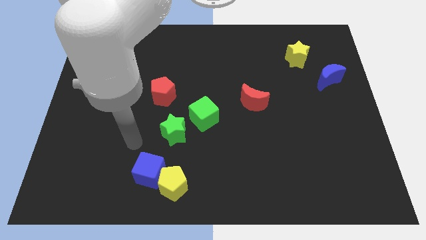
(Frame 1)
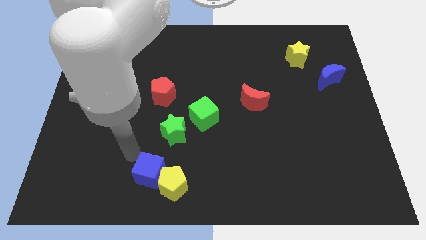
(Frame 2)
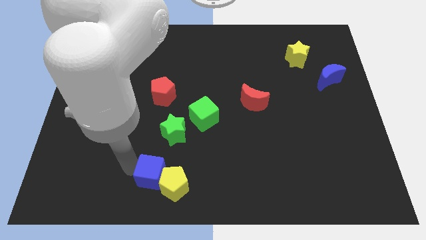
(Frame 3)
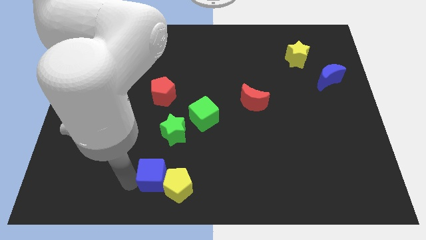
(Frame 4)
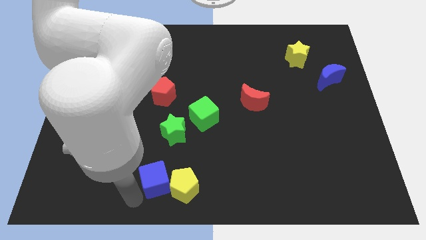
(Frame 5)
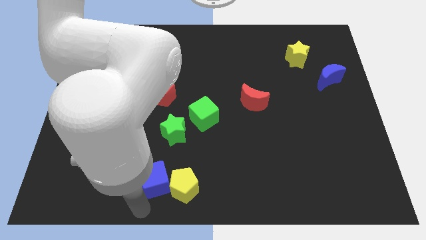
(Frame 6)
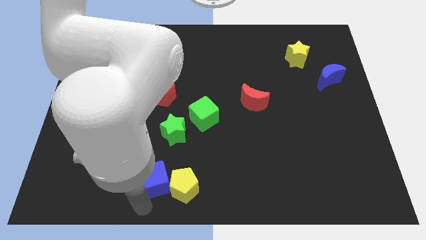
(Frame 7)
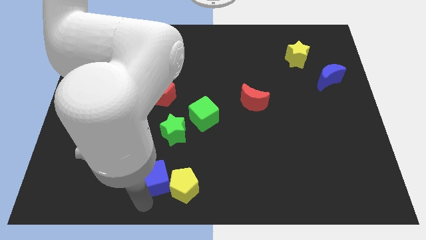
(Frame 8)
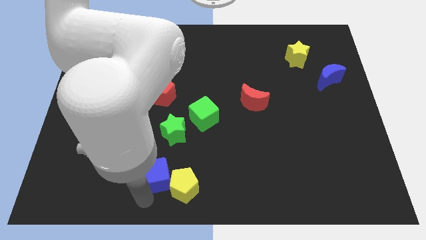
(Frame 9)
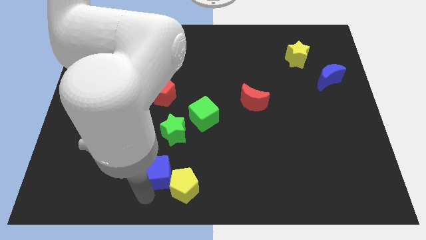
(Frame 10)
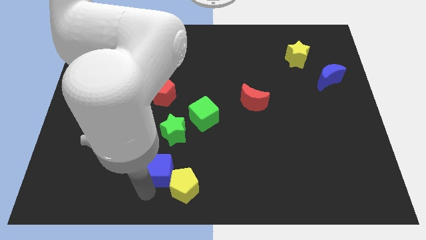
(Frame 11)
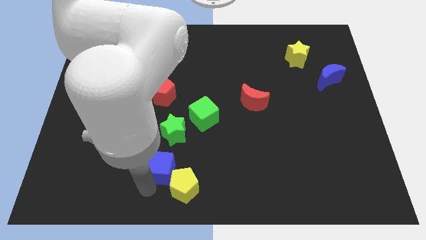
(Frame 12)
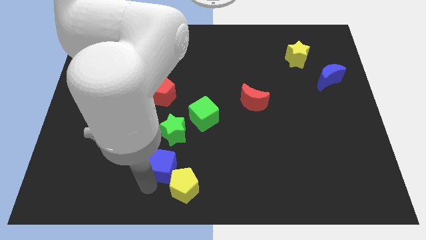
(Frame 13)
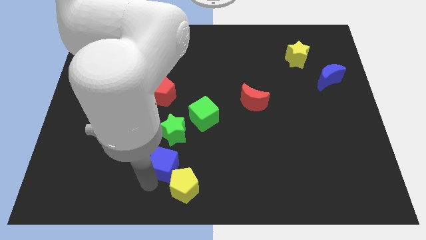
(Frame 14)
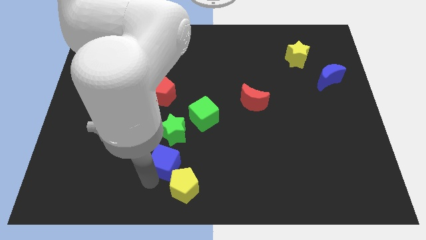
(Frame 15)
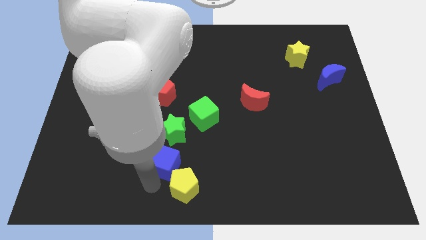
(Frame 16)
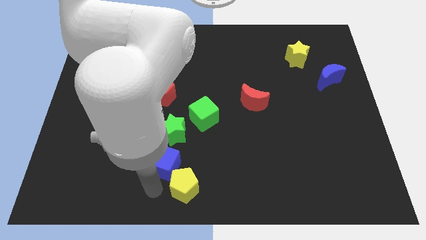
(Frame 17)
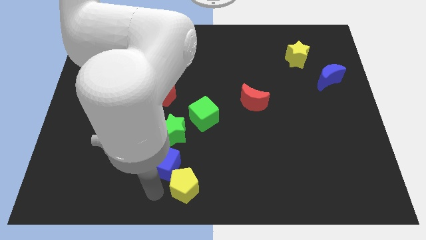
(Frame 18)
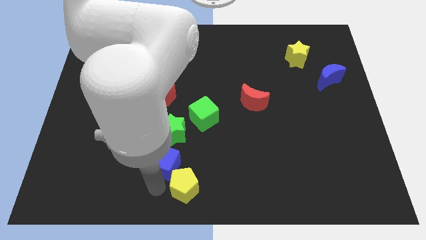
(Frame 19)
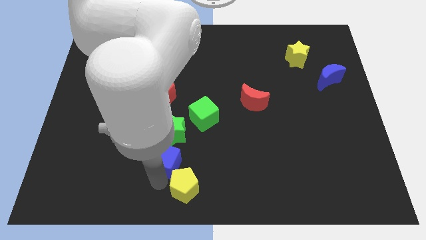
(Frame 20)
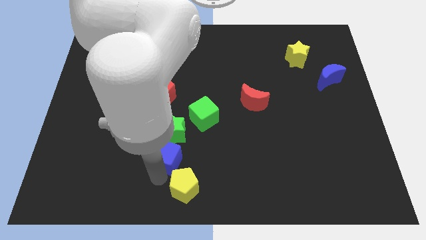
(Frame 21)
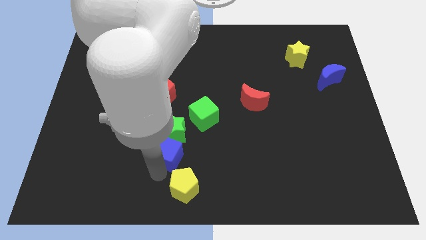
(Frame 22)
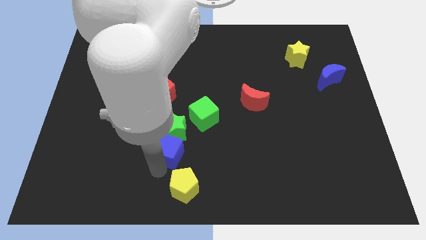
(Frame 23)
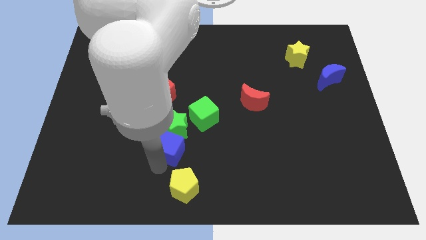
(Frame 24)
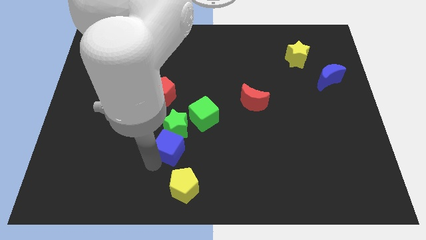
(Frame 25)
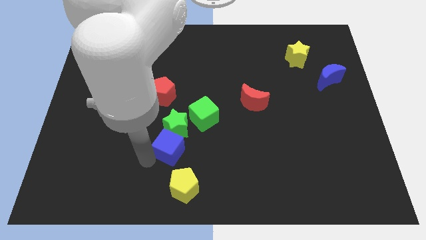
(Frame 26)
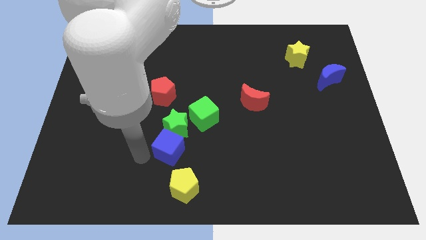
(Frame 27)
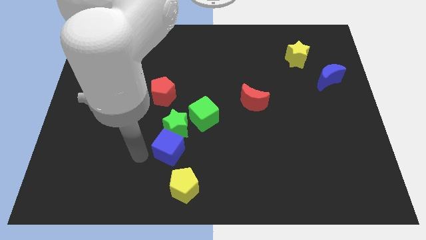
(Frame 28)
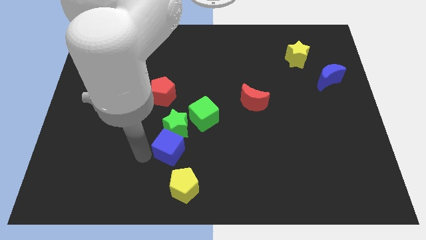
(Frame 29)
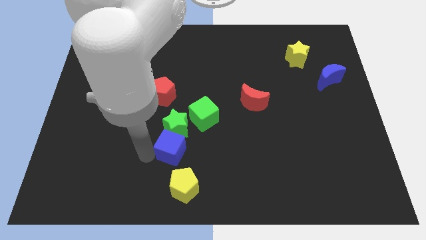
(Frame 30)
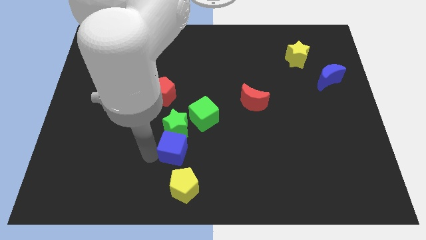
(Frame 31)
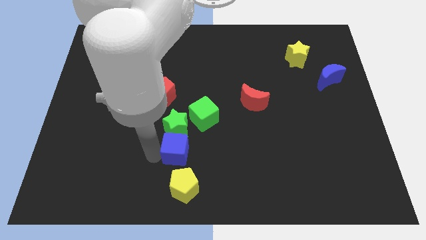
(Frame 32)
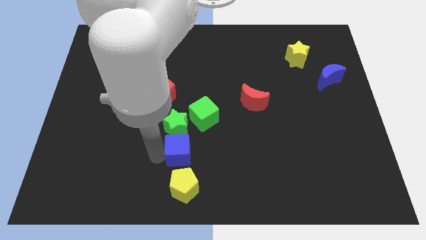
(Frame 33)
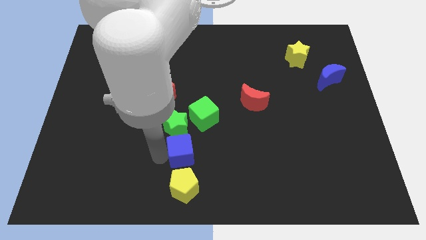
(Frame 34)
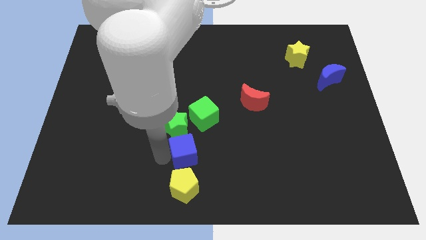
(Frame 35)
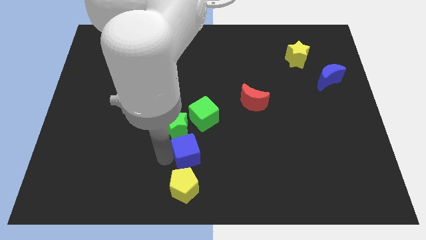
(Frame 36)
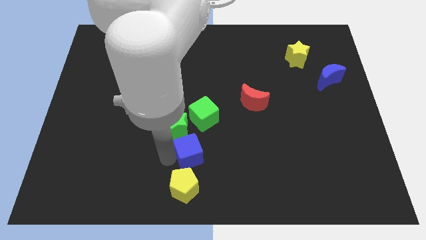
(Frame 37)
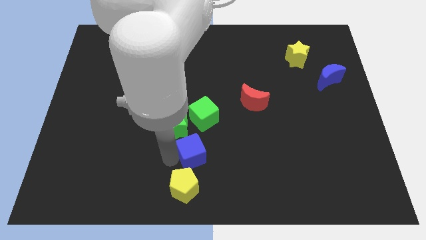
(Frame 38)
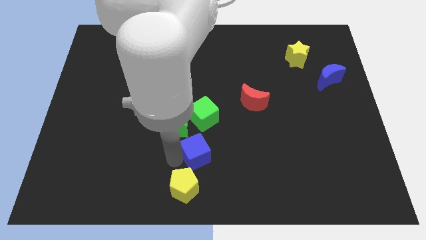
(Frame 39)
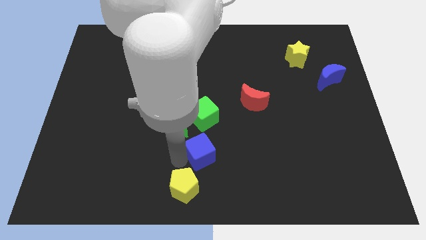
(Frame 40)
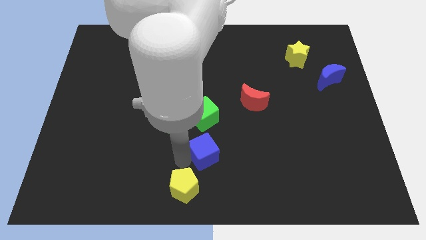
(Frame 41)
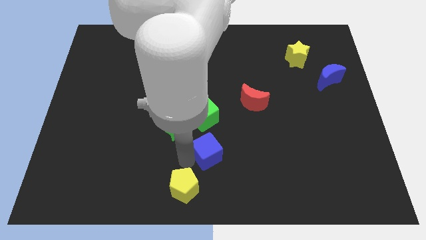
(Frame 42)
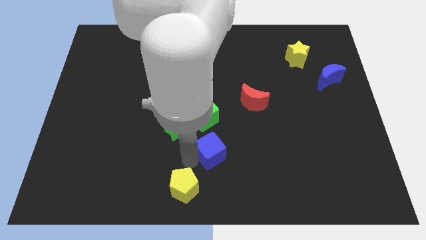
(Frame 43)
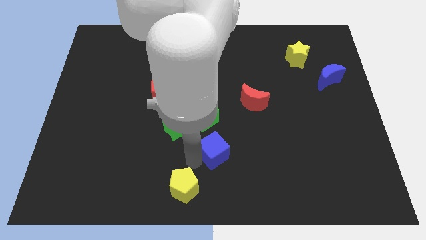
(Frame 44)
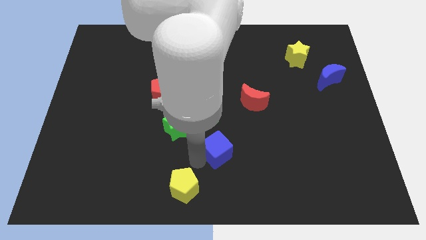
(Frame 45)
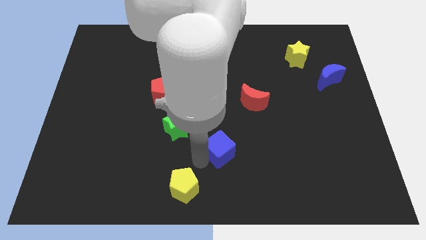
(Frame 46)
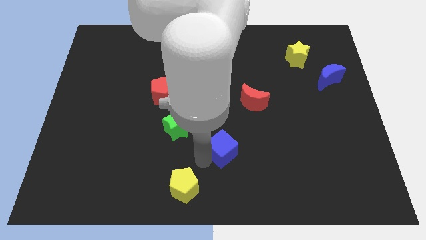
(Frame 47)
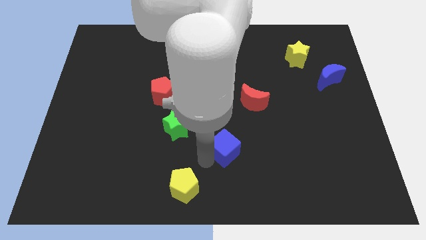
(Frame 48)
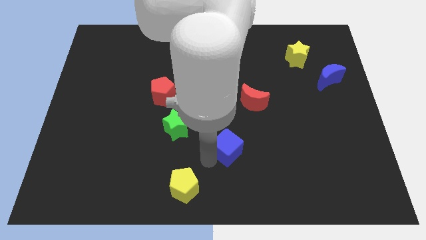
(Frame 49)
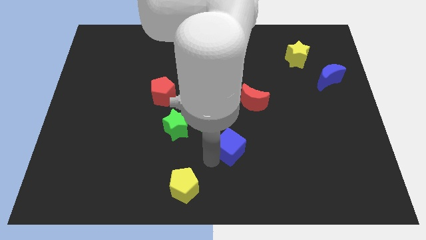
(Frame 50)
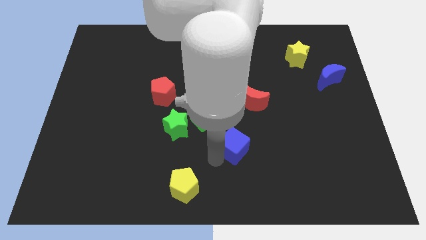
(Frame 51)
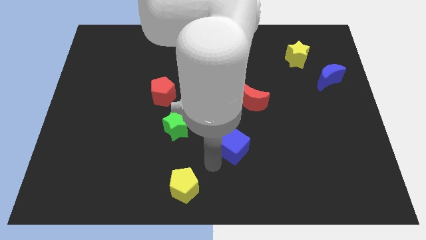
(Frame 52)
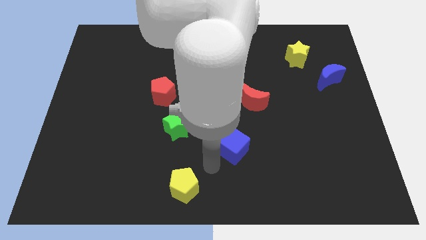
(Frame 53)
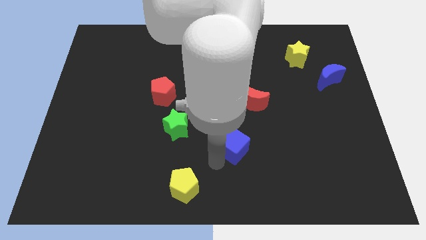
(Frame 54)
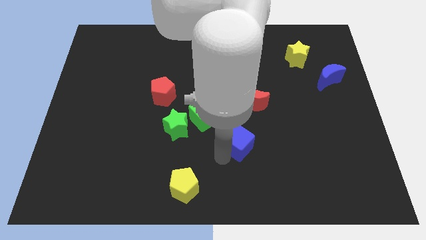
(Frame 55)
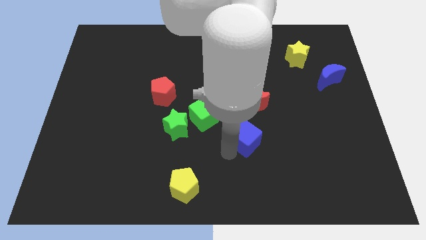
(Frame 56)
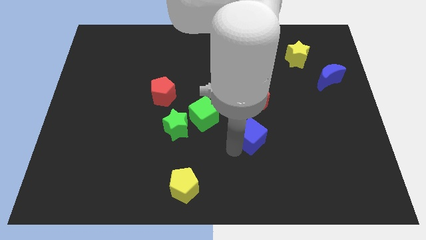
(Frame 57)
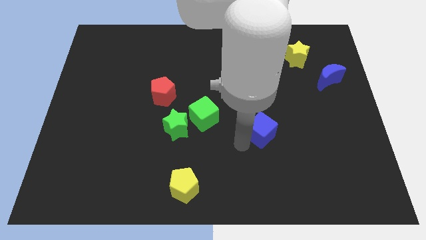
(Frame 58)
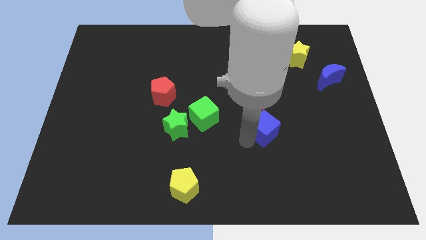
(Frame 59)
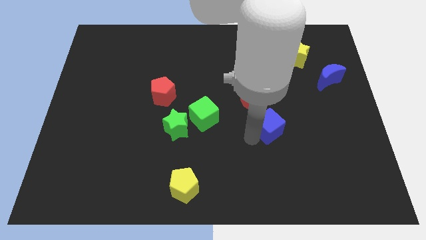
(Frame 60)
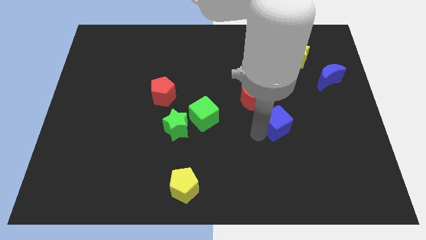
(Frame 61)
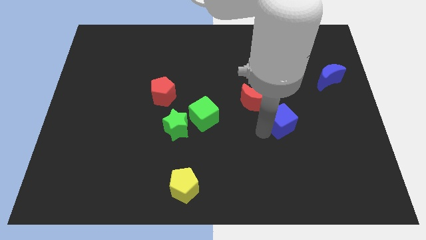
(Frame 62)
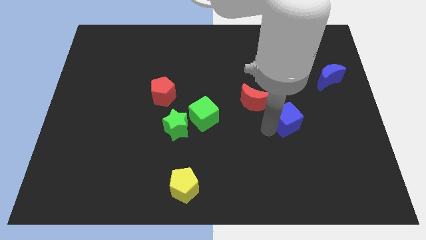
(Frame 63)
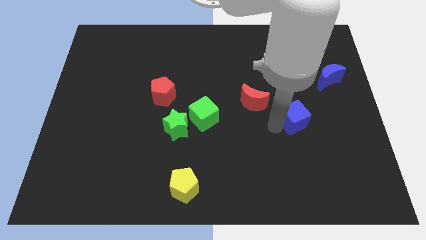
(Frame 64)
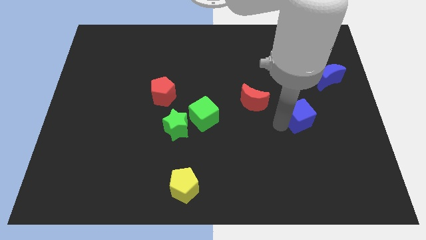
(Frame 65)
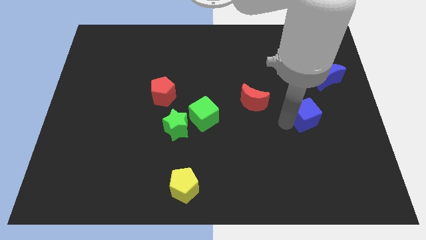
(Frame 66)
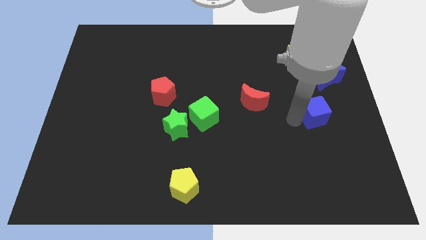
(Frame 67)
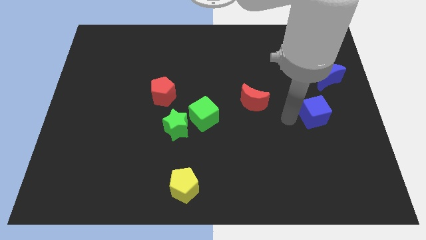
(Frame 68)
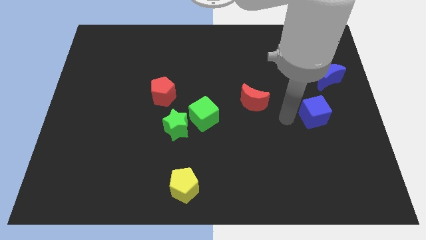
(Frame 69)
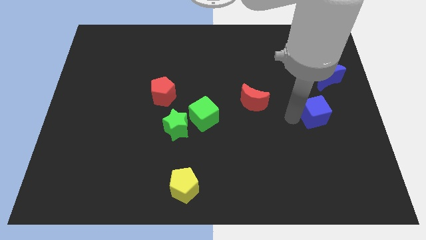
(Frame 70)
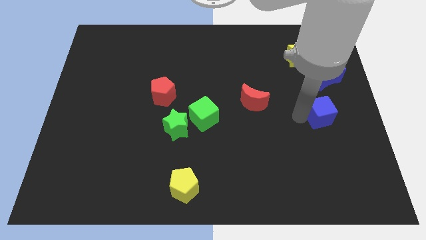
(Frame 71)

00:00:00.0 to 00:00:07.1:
push the blue cube to the bottom side of the blue moon
